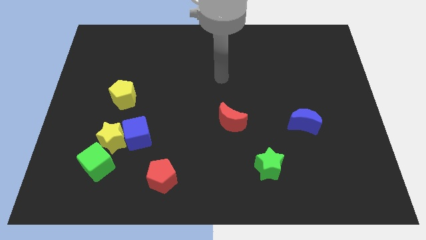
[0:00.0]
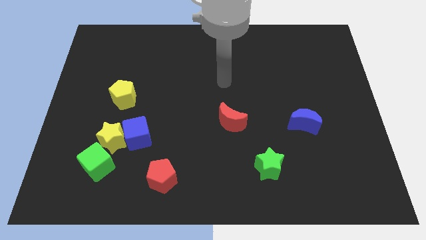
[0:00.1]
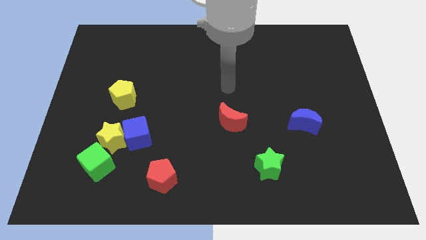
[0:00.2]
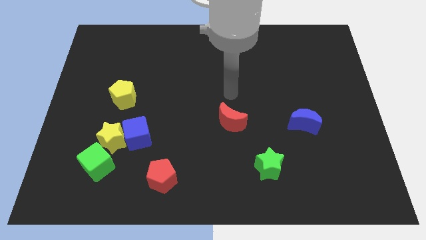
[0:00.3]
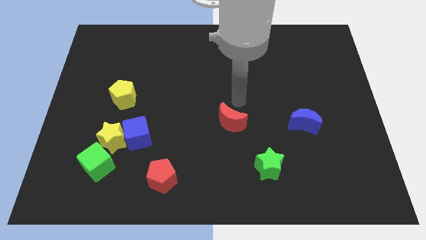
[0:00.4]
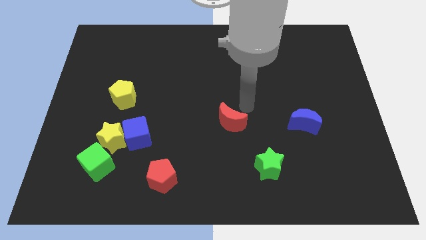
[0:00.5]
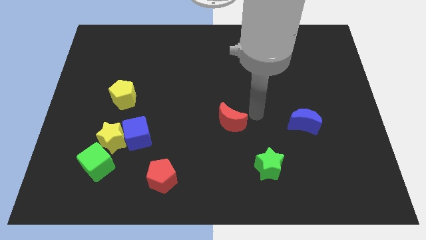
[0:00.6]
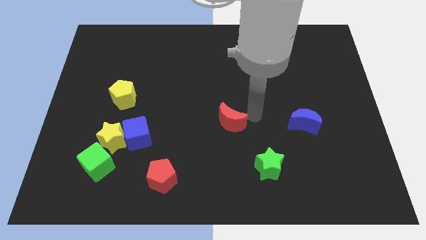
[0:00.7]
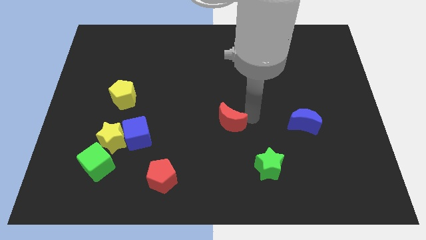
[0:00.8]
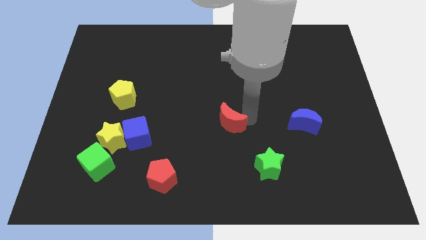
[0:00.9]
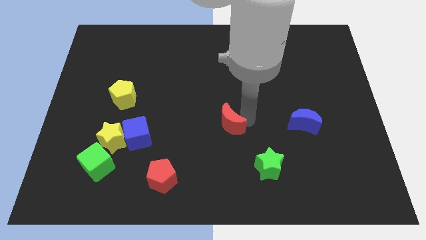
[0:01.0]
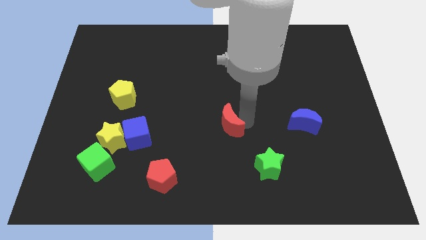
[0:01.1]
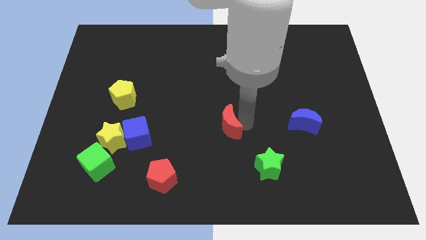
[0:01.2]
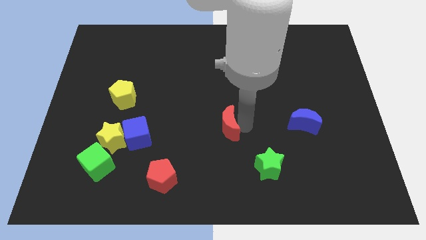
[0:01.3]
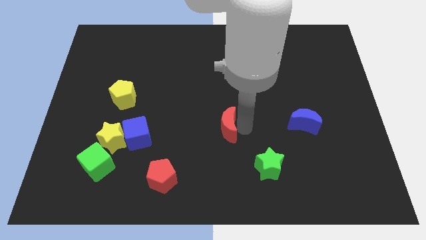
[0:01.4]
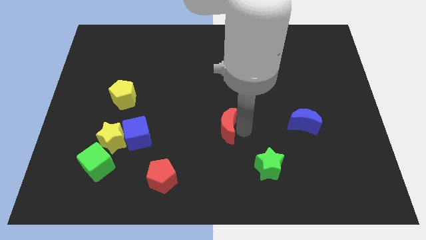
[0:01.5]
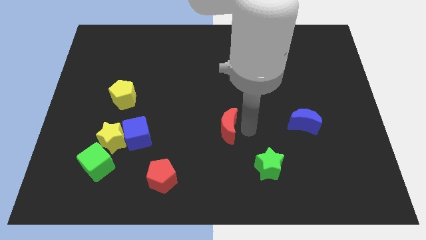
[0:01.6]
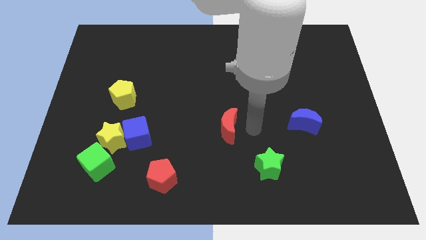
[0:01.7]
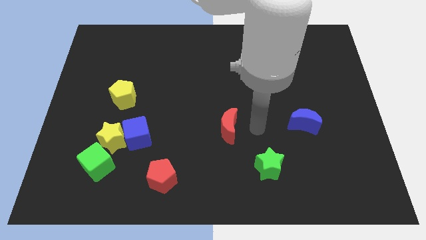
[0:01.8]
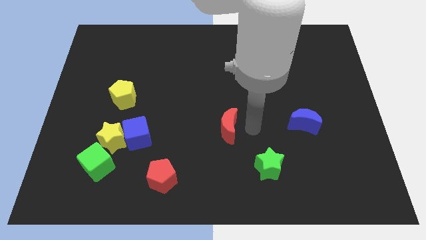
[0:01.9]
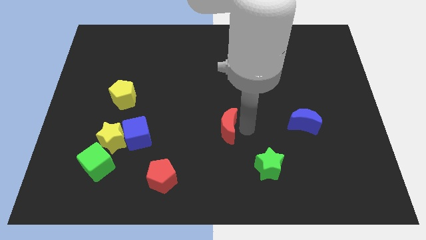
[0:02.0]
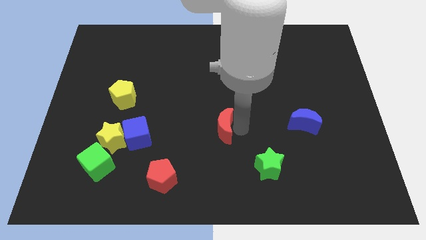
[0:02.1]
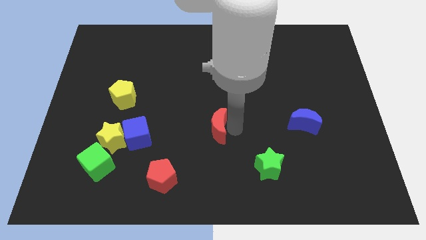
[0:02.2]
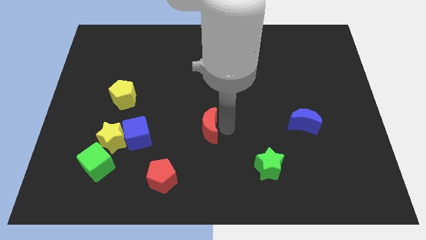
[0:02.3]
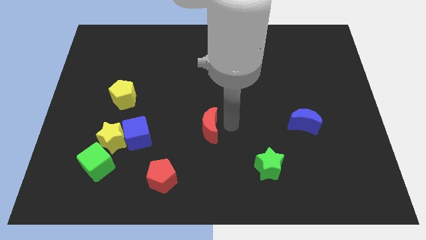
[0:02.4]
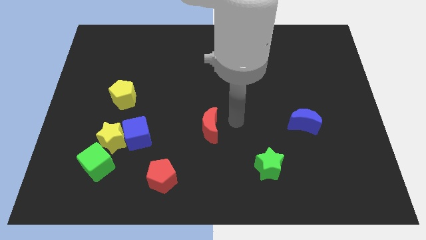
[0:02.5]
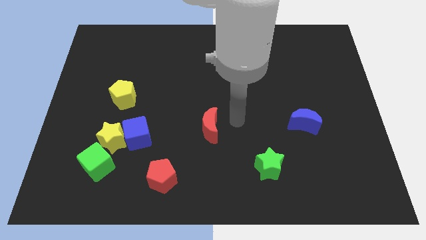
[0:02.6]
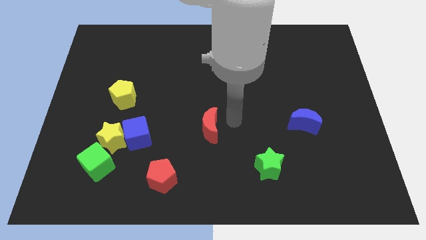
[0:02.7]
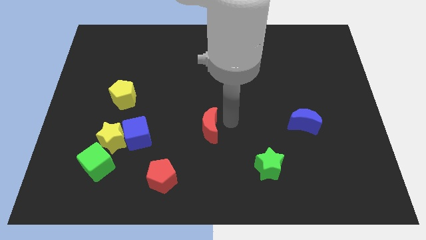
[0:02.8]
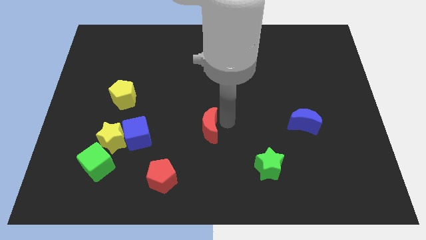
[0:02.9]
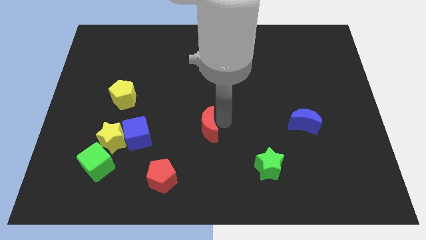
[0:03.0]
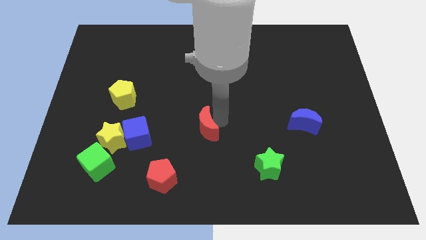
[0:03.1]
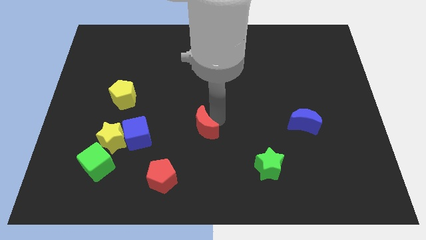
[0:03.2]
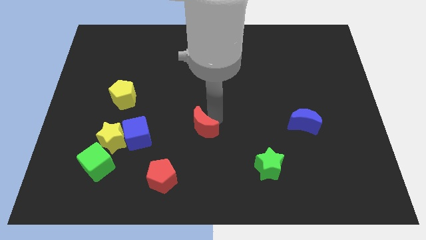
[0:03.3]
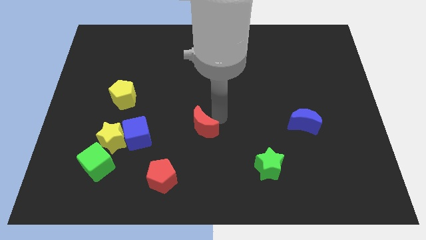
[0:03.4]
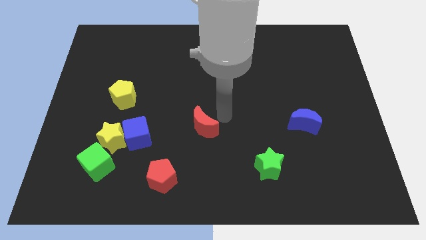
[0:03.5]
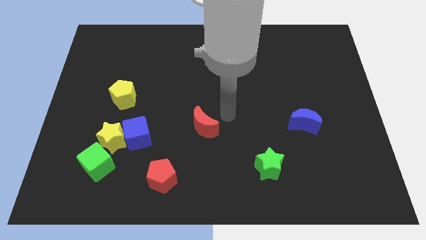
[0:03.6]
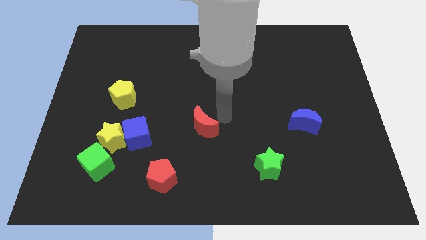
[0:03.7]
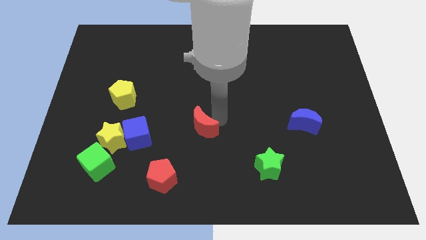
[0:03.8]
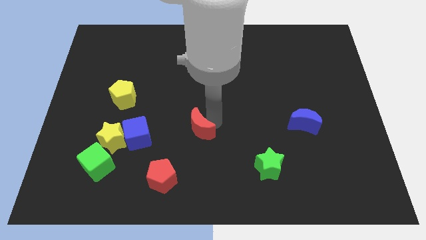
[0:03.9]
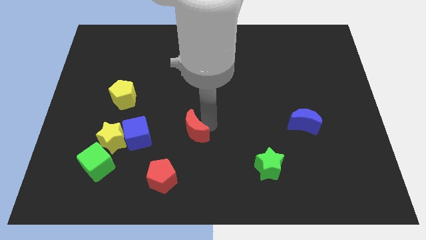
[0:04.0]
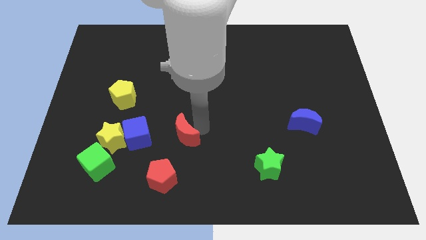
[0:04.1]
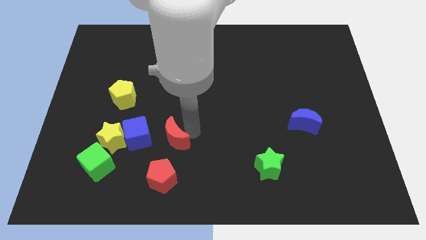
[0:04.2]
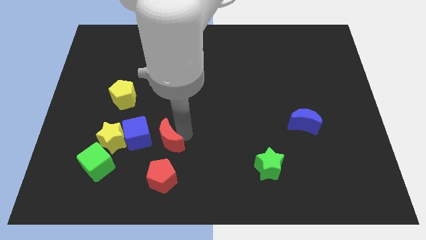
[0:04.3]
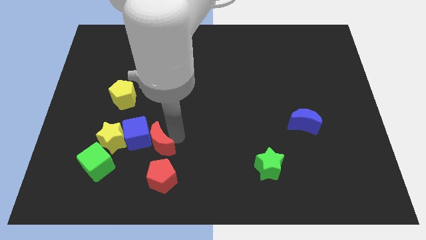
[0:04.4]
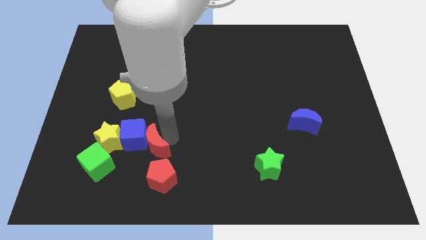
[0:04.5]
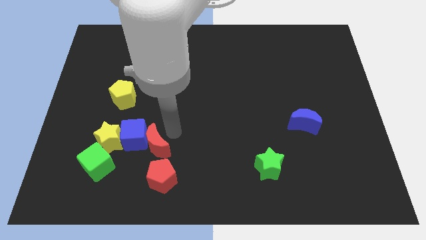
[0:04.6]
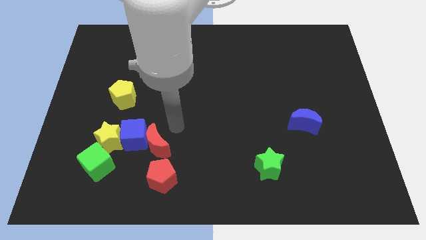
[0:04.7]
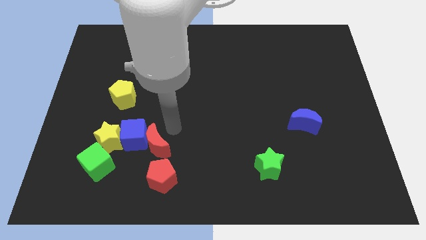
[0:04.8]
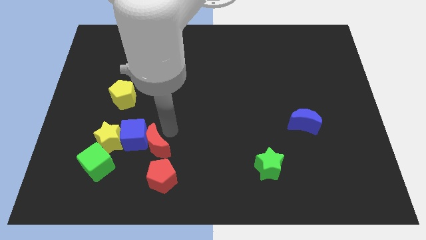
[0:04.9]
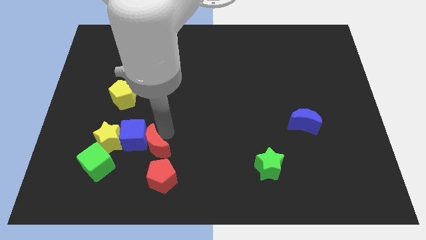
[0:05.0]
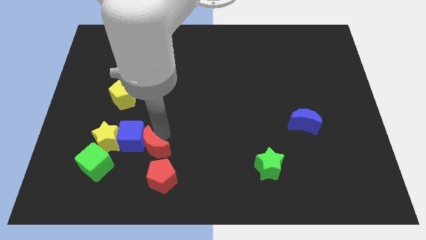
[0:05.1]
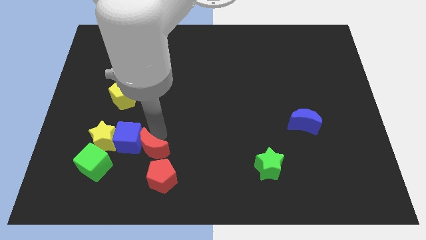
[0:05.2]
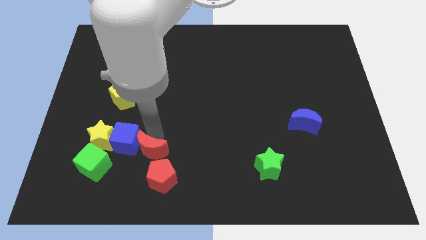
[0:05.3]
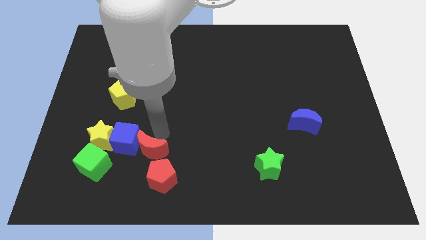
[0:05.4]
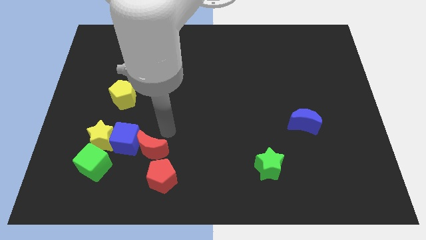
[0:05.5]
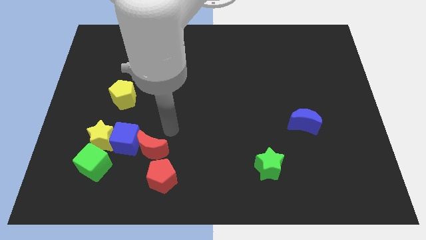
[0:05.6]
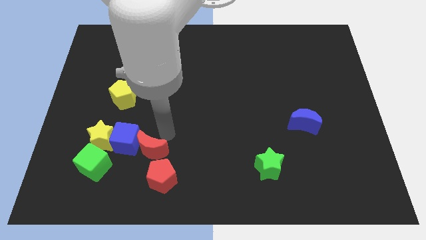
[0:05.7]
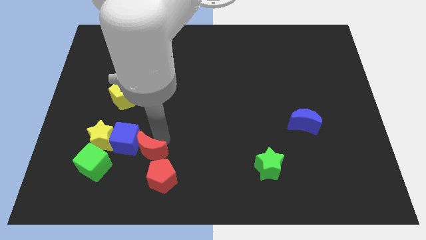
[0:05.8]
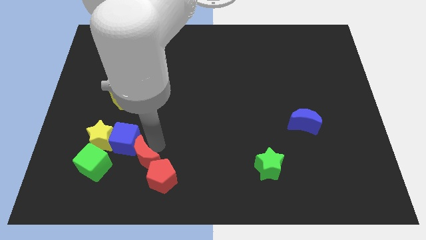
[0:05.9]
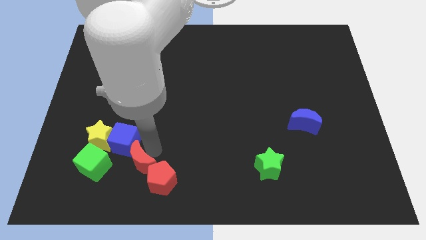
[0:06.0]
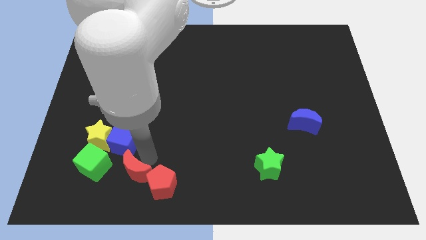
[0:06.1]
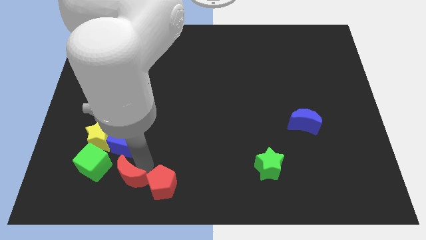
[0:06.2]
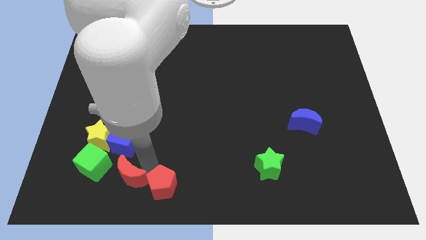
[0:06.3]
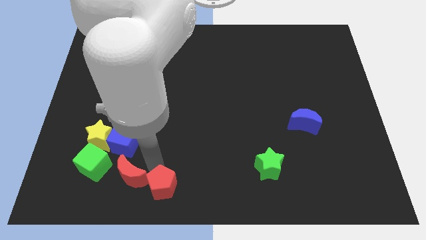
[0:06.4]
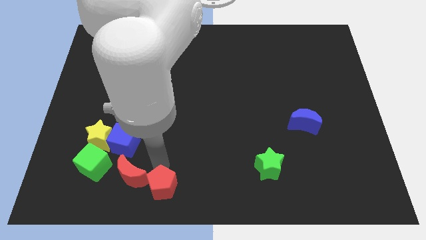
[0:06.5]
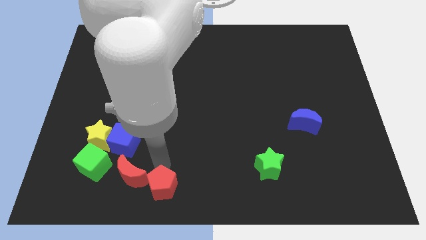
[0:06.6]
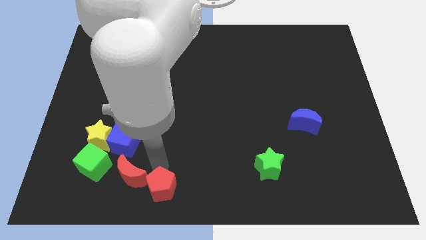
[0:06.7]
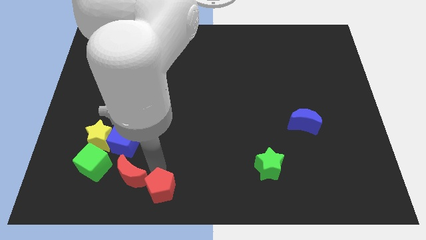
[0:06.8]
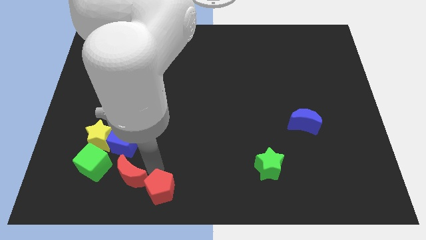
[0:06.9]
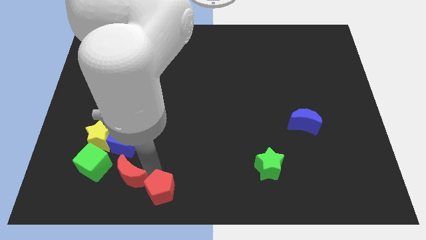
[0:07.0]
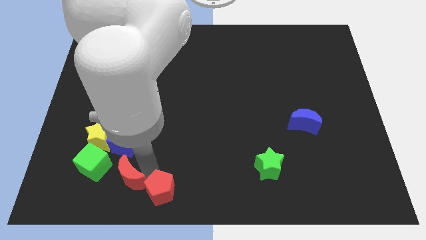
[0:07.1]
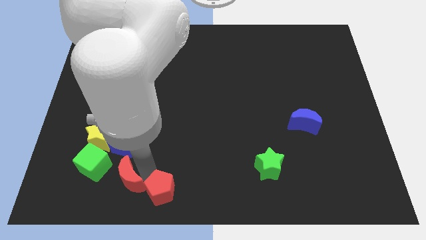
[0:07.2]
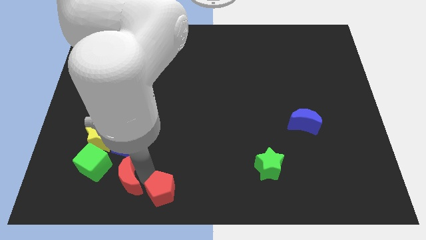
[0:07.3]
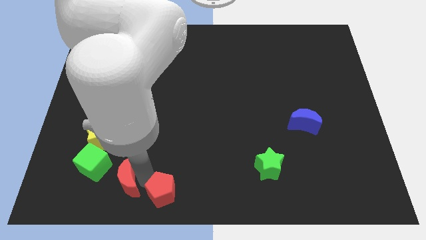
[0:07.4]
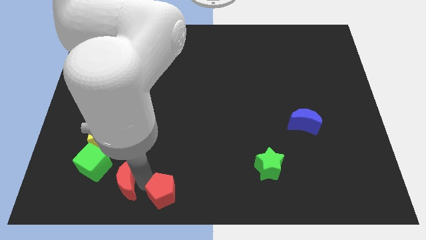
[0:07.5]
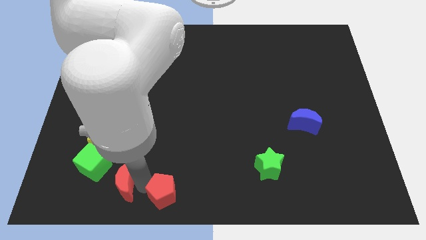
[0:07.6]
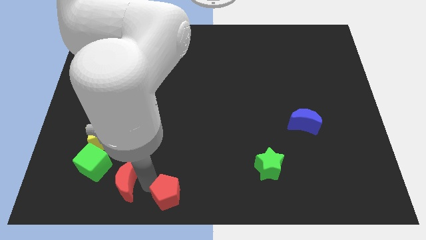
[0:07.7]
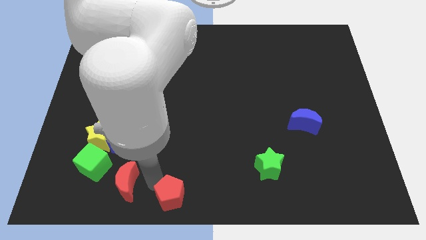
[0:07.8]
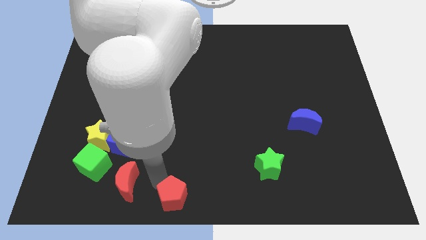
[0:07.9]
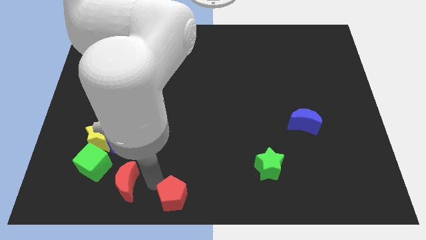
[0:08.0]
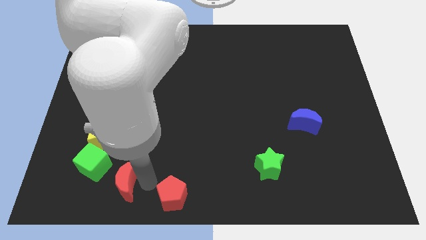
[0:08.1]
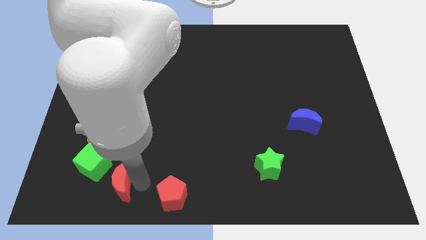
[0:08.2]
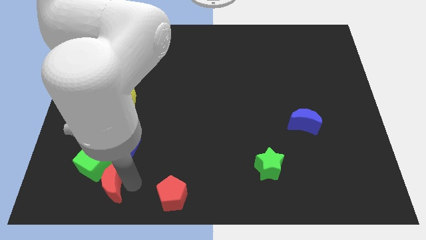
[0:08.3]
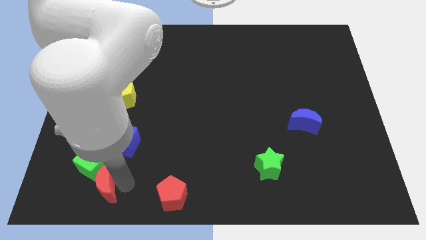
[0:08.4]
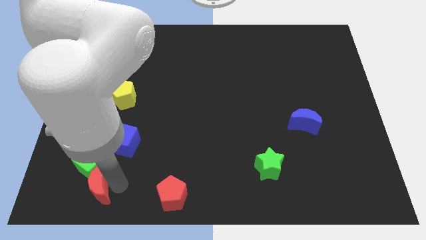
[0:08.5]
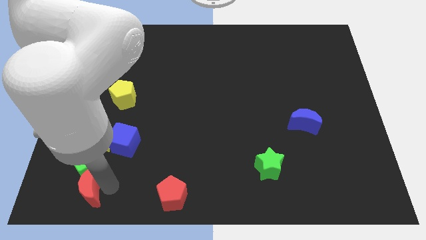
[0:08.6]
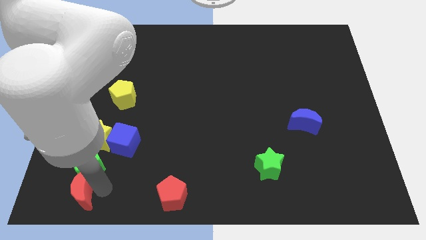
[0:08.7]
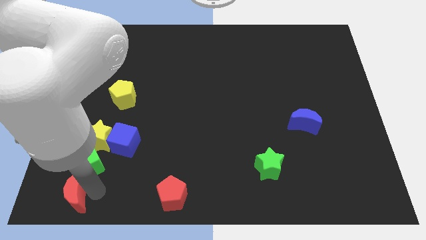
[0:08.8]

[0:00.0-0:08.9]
move the red moon to the bottom left of the board
